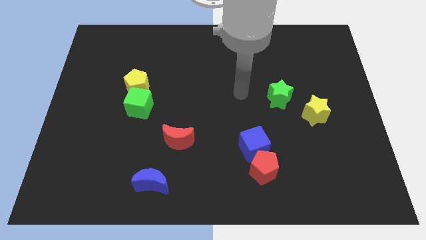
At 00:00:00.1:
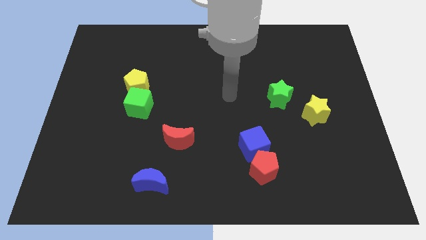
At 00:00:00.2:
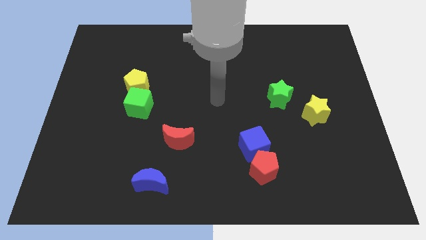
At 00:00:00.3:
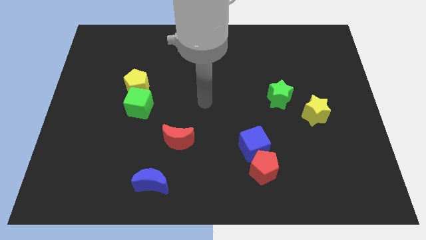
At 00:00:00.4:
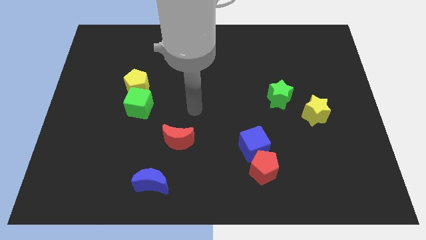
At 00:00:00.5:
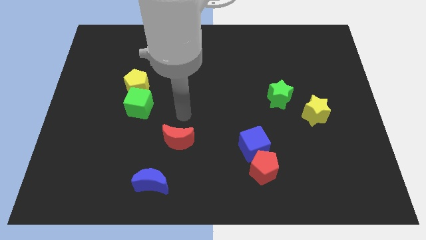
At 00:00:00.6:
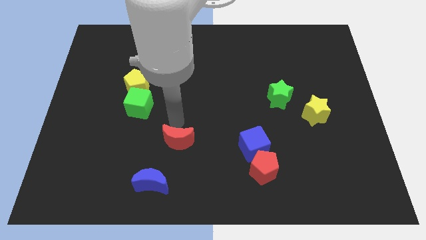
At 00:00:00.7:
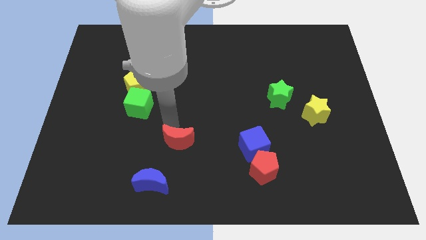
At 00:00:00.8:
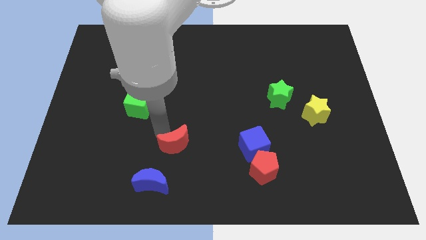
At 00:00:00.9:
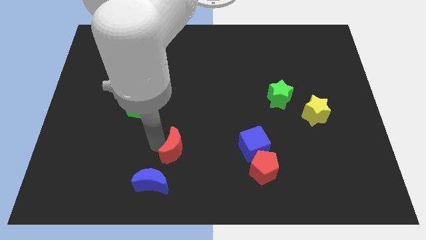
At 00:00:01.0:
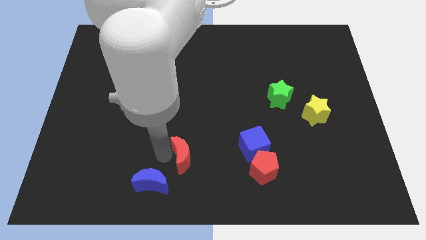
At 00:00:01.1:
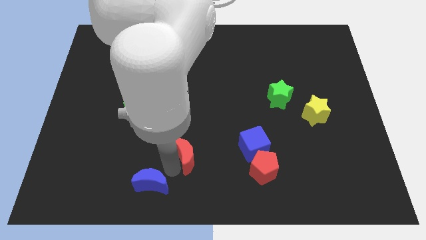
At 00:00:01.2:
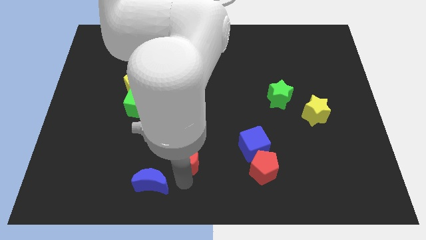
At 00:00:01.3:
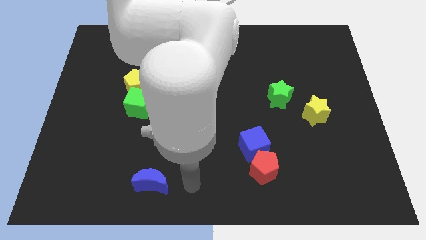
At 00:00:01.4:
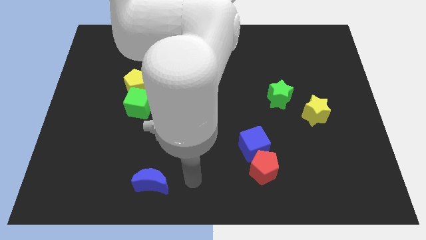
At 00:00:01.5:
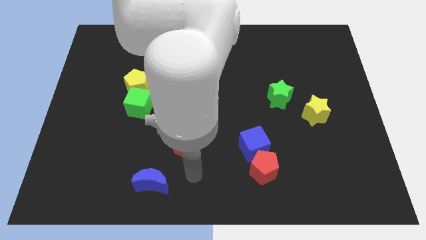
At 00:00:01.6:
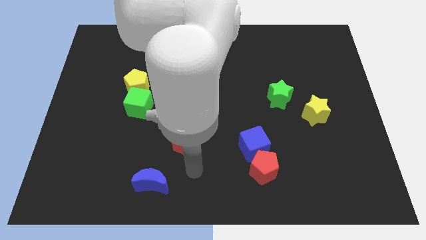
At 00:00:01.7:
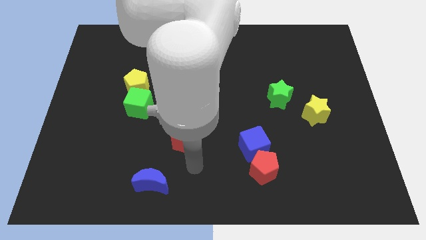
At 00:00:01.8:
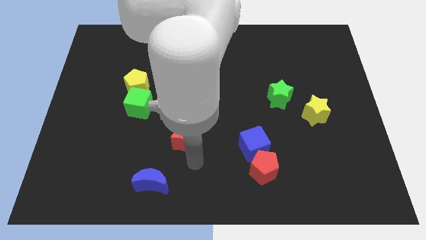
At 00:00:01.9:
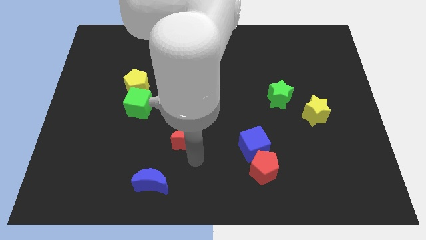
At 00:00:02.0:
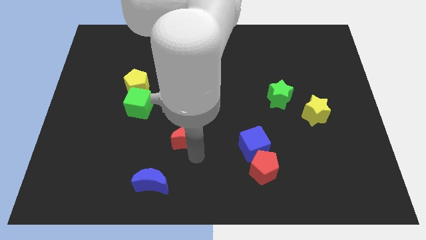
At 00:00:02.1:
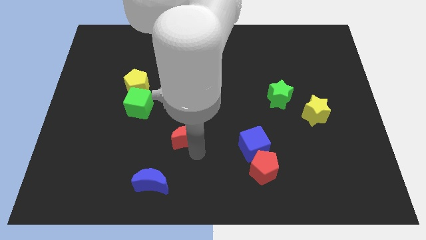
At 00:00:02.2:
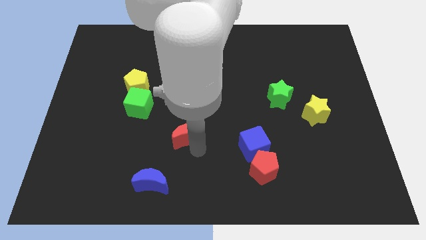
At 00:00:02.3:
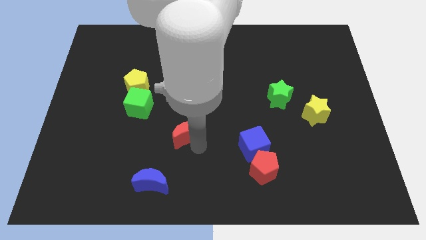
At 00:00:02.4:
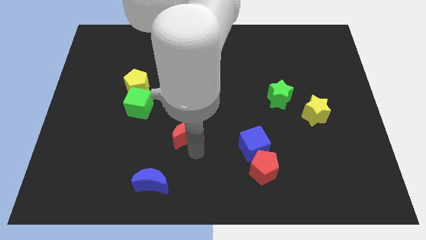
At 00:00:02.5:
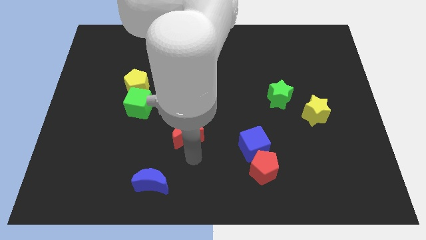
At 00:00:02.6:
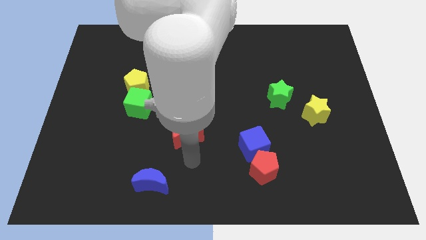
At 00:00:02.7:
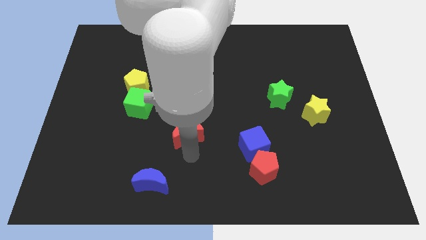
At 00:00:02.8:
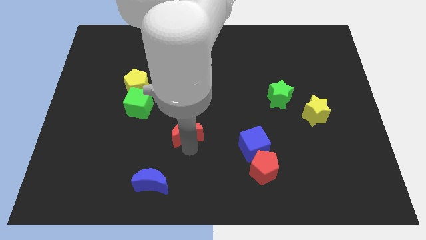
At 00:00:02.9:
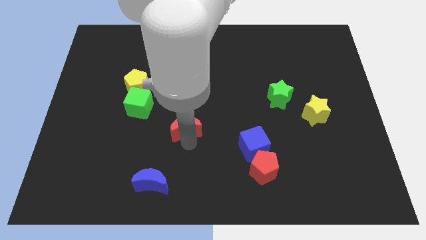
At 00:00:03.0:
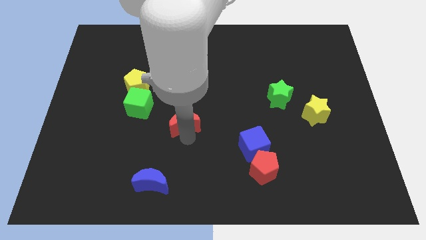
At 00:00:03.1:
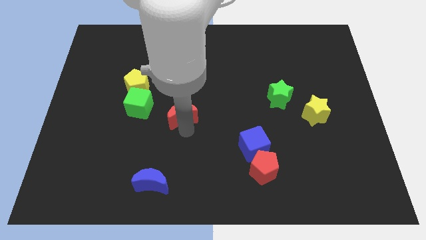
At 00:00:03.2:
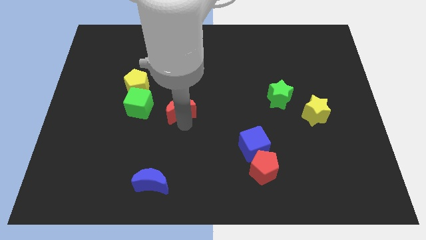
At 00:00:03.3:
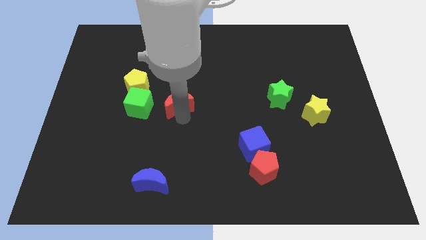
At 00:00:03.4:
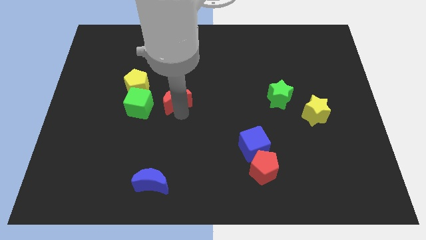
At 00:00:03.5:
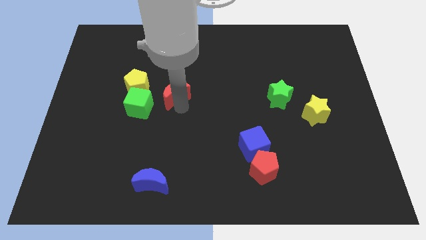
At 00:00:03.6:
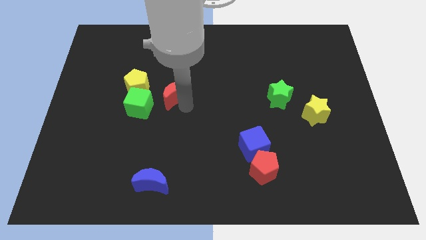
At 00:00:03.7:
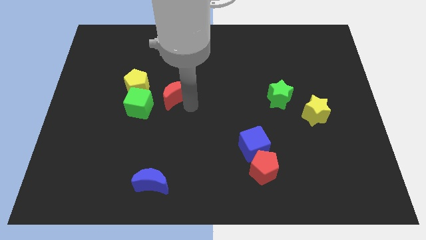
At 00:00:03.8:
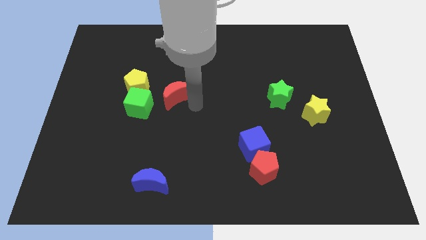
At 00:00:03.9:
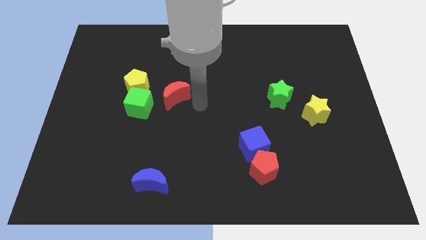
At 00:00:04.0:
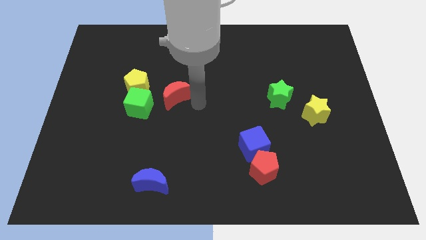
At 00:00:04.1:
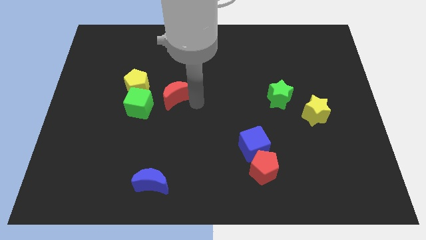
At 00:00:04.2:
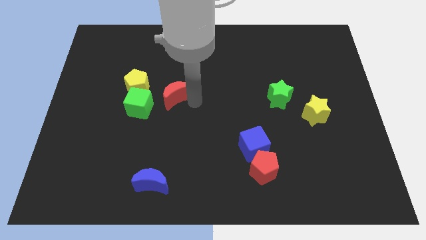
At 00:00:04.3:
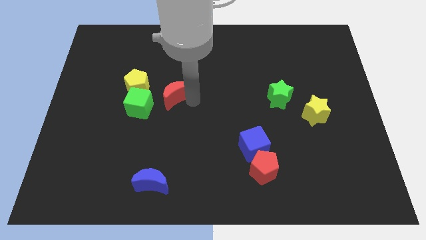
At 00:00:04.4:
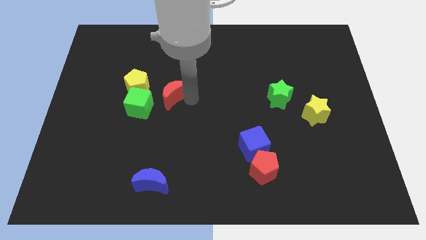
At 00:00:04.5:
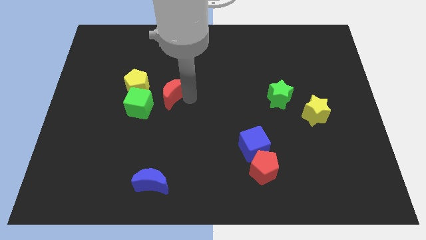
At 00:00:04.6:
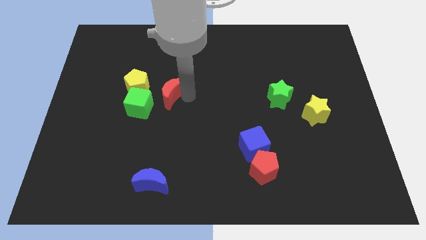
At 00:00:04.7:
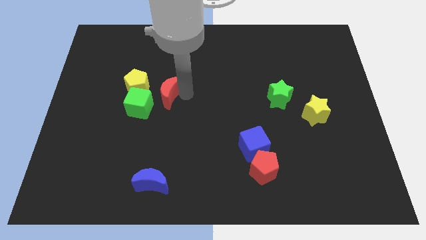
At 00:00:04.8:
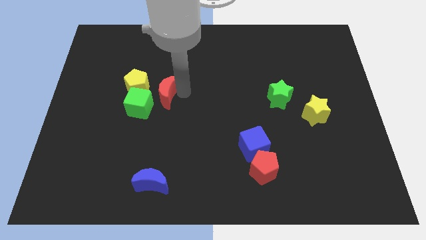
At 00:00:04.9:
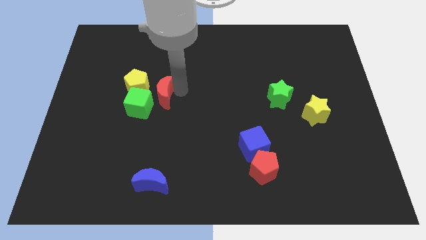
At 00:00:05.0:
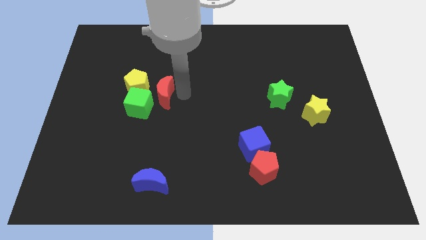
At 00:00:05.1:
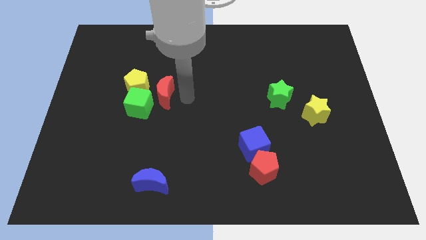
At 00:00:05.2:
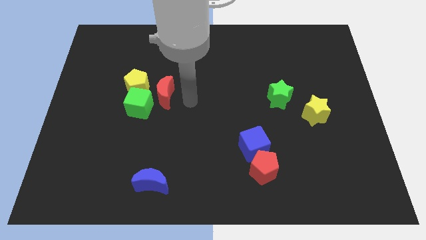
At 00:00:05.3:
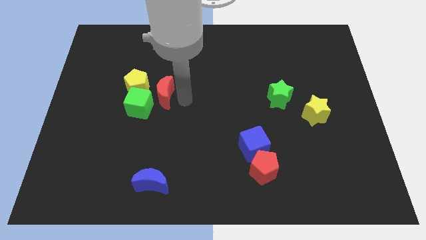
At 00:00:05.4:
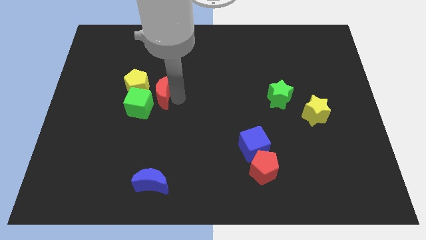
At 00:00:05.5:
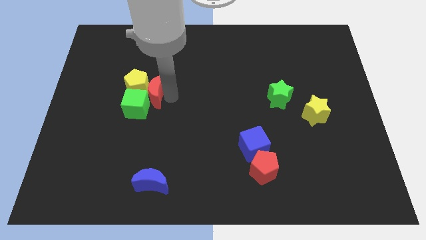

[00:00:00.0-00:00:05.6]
move the red moon next to the yellow pentagon

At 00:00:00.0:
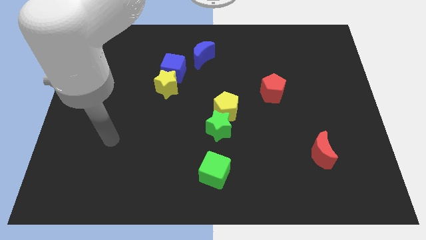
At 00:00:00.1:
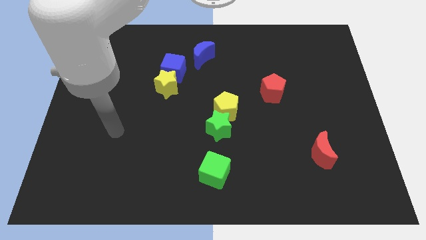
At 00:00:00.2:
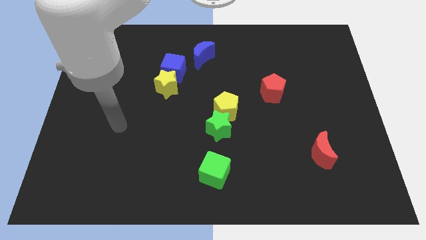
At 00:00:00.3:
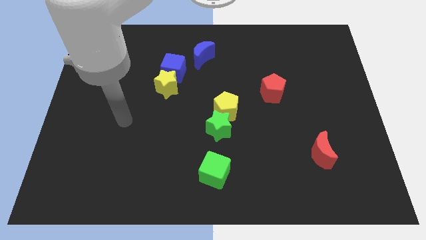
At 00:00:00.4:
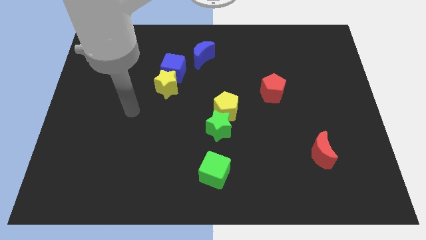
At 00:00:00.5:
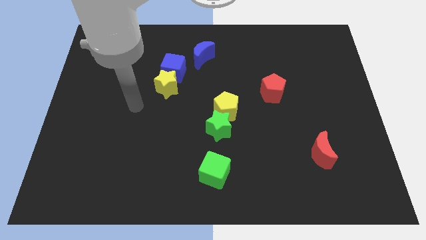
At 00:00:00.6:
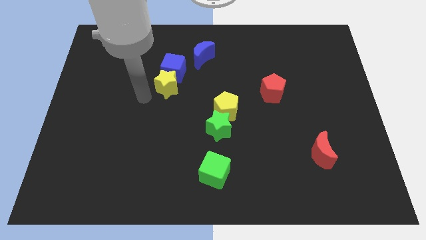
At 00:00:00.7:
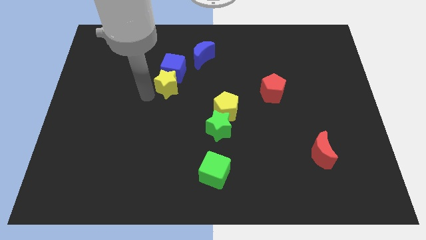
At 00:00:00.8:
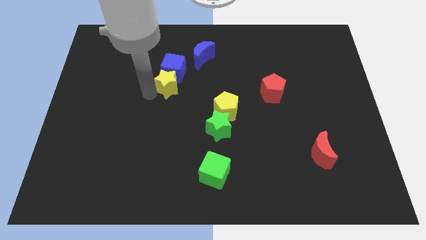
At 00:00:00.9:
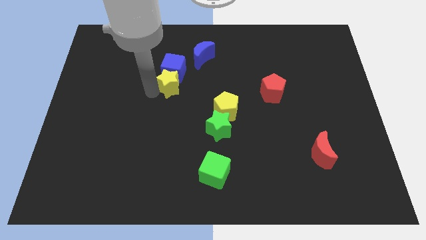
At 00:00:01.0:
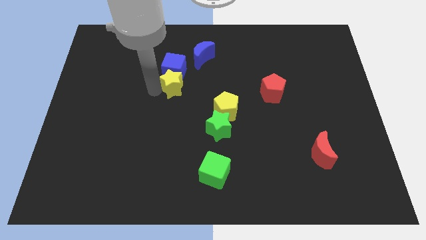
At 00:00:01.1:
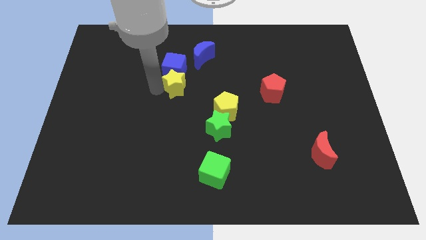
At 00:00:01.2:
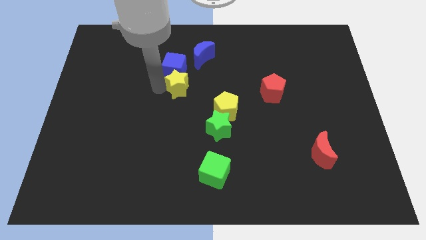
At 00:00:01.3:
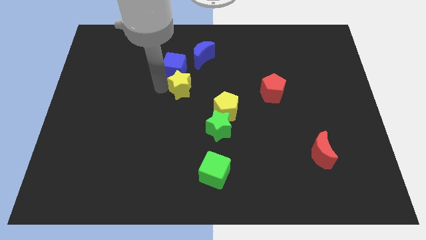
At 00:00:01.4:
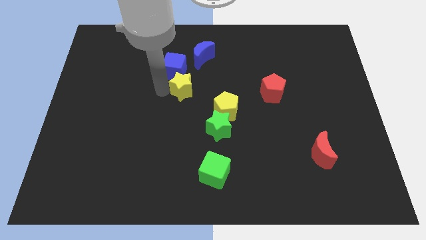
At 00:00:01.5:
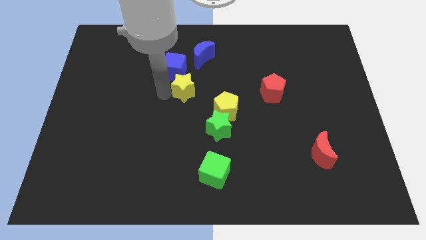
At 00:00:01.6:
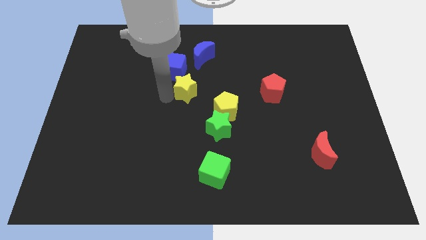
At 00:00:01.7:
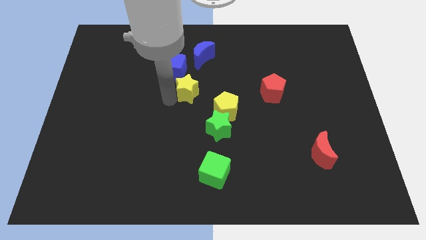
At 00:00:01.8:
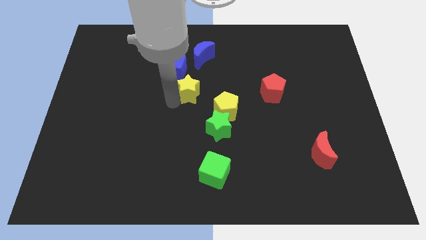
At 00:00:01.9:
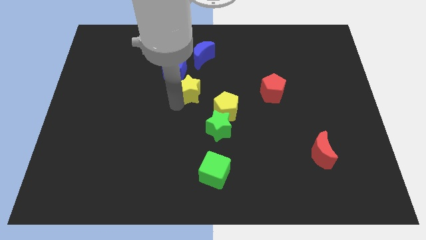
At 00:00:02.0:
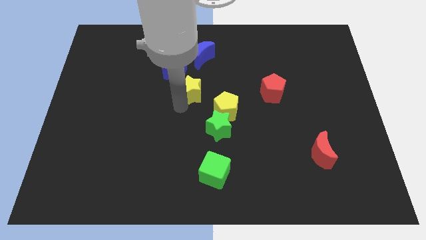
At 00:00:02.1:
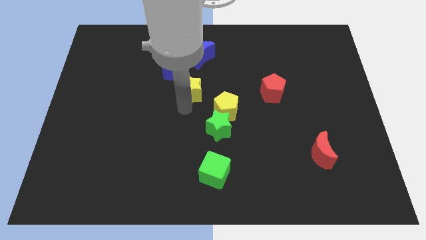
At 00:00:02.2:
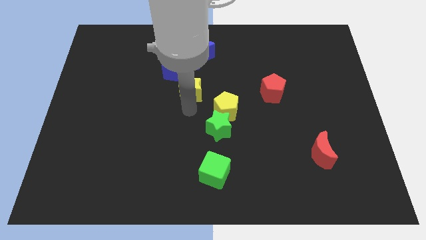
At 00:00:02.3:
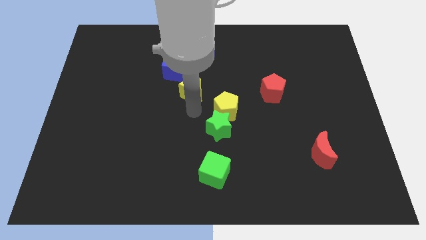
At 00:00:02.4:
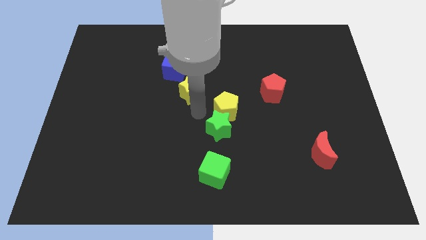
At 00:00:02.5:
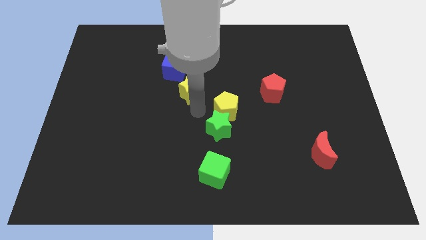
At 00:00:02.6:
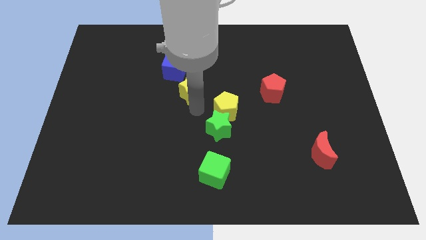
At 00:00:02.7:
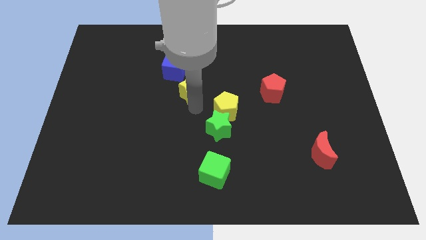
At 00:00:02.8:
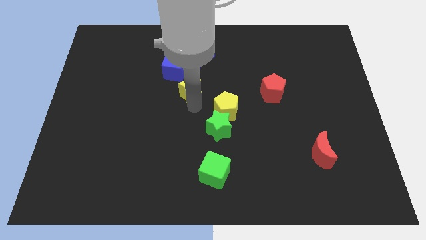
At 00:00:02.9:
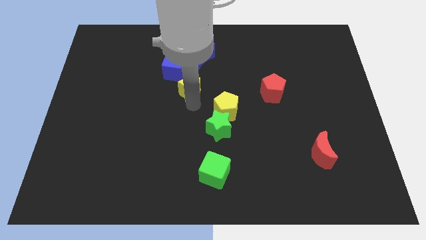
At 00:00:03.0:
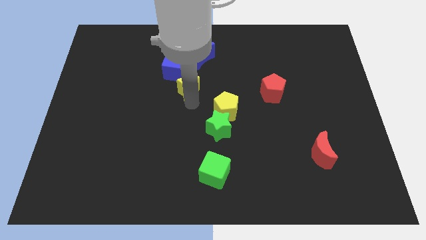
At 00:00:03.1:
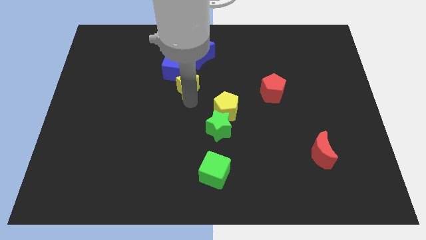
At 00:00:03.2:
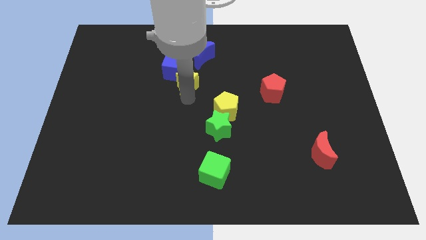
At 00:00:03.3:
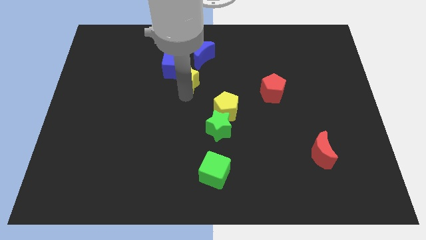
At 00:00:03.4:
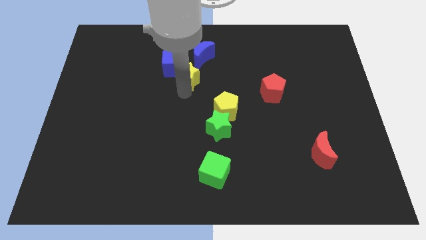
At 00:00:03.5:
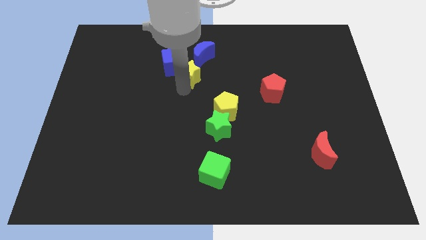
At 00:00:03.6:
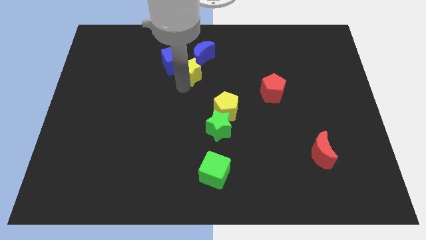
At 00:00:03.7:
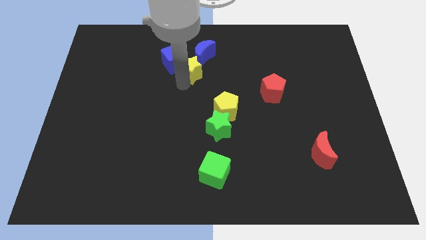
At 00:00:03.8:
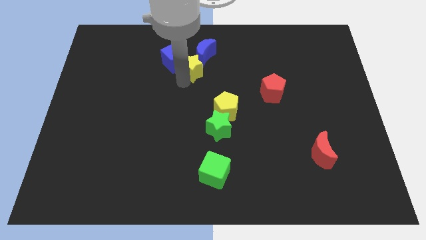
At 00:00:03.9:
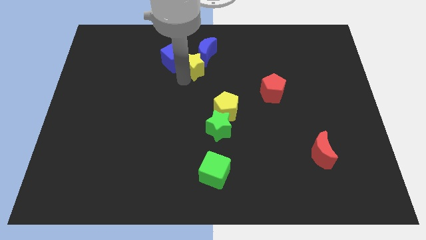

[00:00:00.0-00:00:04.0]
move the yellow star towards the blue moon
